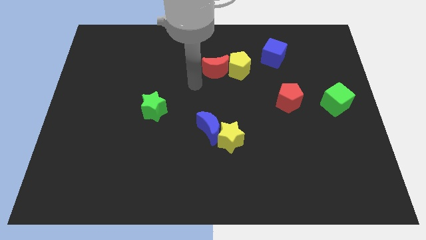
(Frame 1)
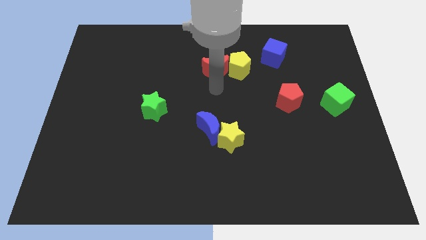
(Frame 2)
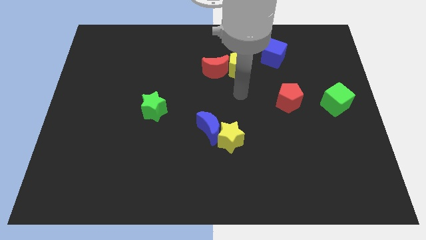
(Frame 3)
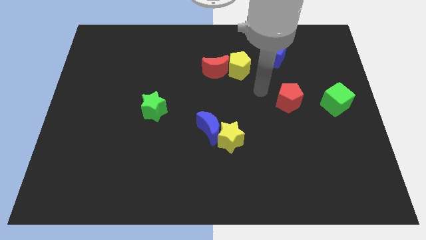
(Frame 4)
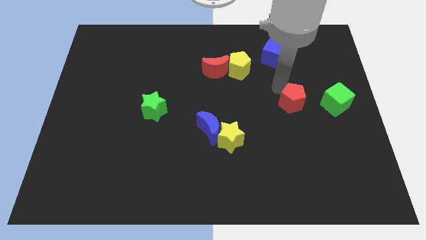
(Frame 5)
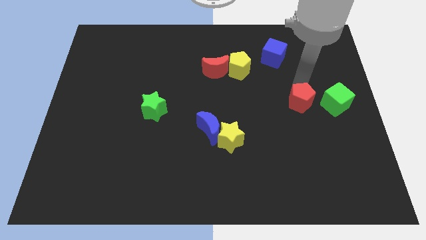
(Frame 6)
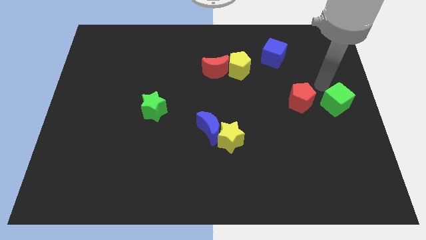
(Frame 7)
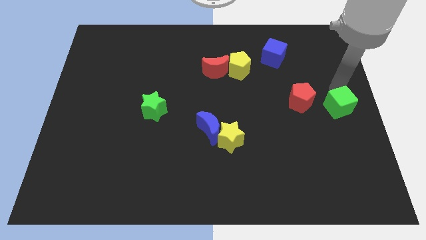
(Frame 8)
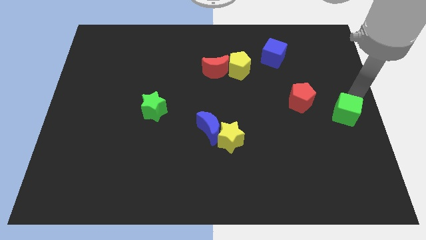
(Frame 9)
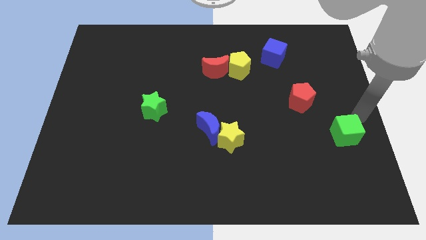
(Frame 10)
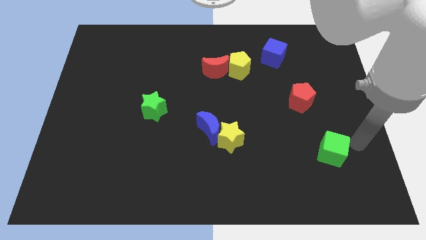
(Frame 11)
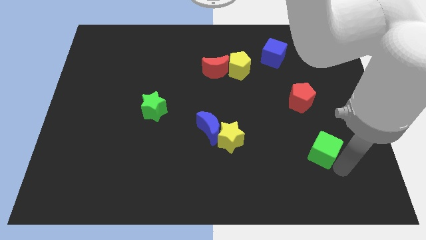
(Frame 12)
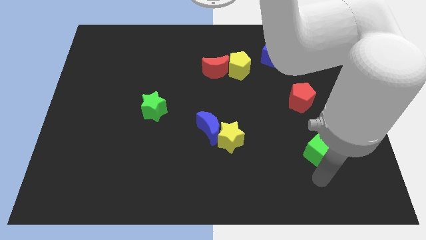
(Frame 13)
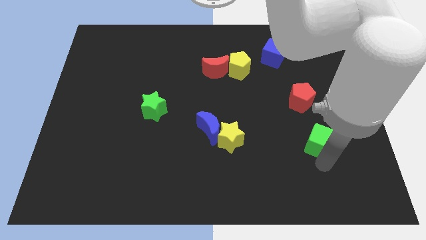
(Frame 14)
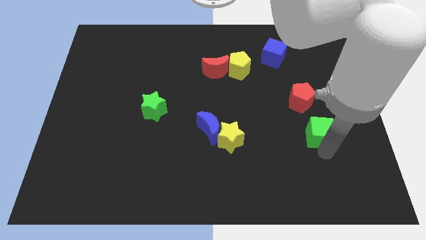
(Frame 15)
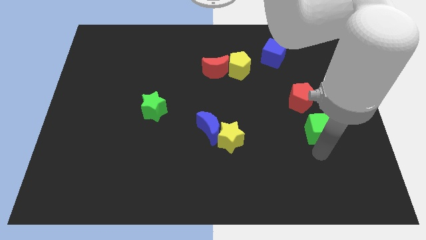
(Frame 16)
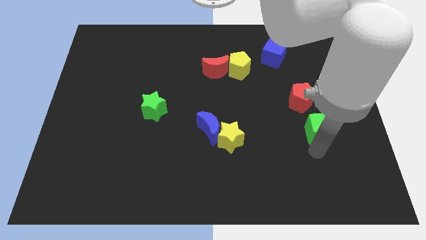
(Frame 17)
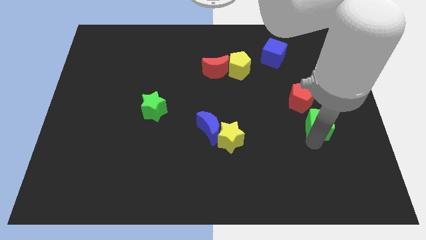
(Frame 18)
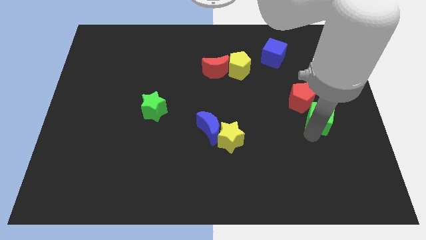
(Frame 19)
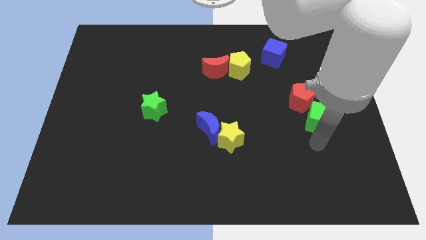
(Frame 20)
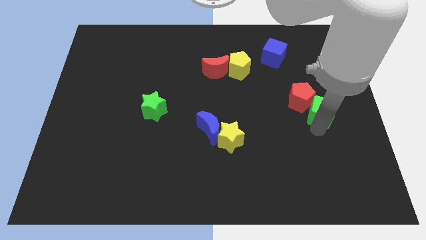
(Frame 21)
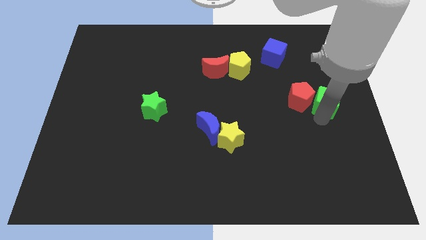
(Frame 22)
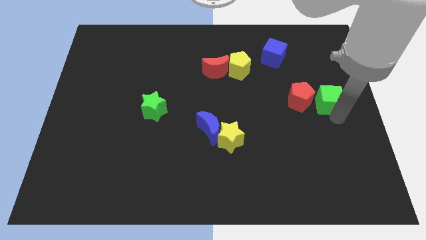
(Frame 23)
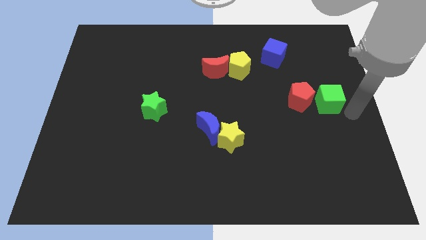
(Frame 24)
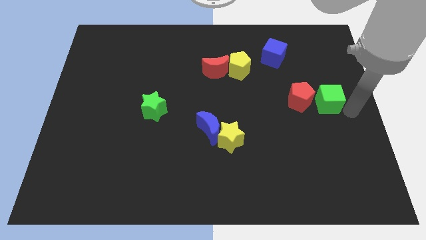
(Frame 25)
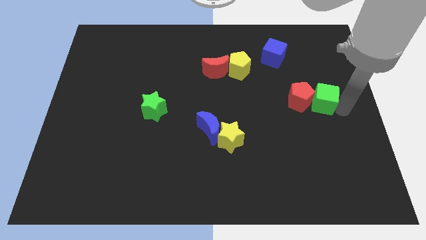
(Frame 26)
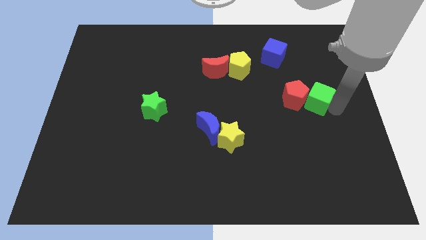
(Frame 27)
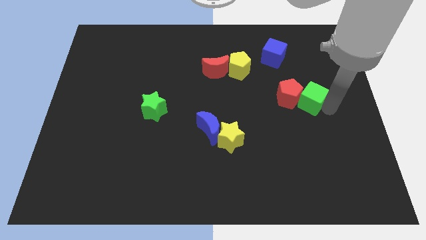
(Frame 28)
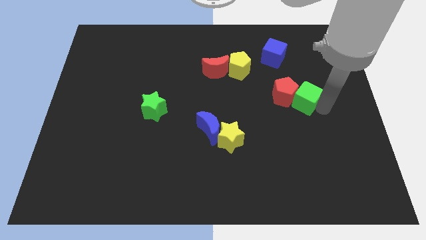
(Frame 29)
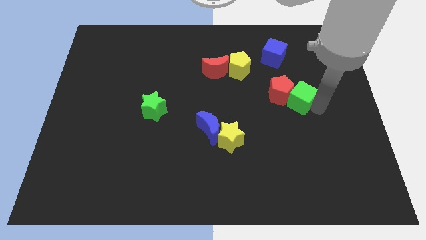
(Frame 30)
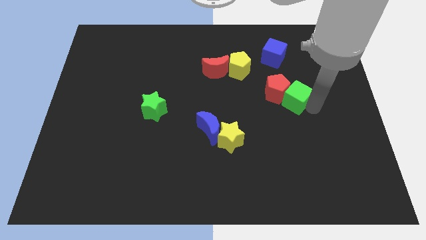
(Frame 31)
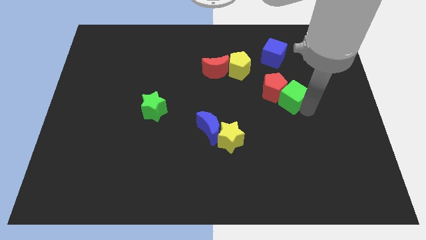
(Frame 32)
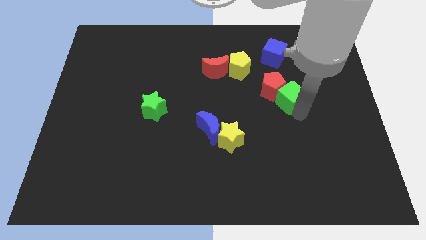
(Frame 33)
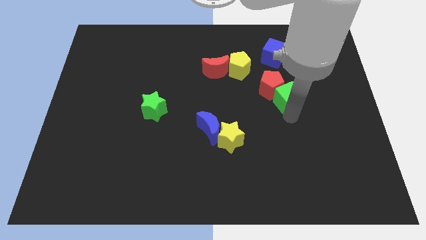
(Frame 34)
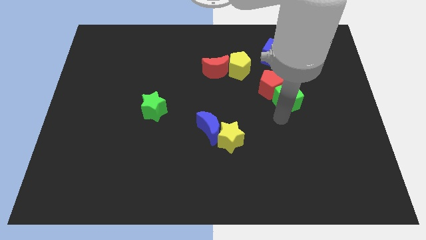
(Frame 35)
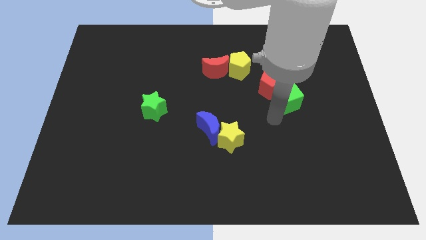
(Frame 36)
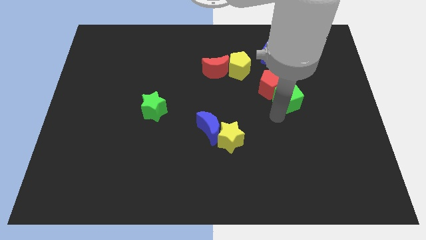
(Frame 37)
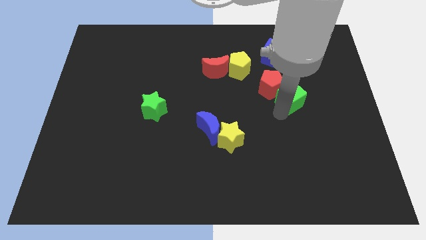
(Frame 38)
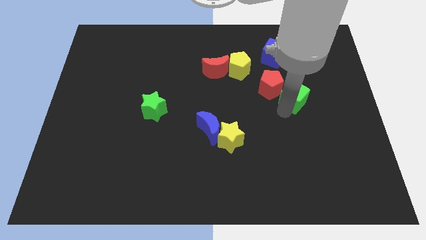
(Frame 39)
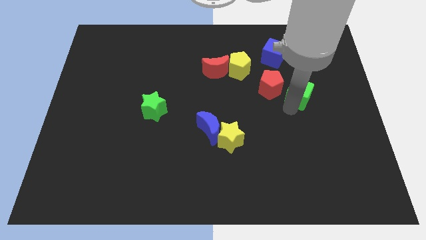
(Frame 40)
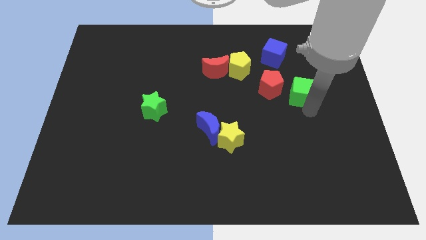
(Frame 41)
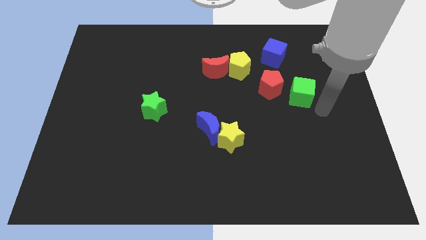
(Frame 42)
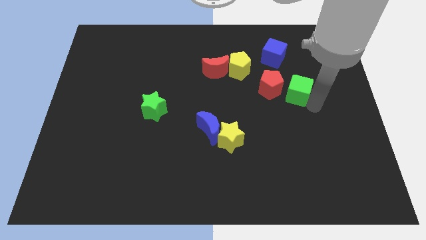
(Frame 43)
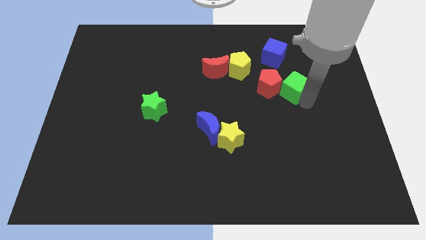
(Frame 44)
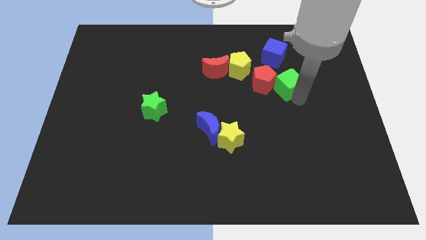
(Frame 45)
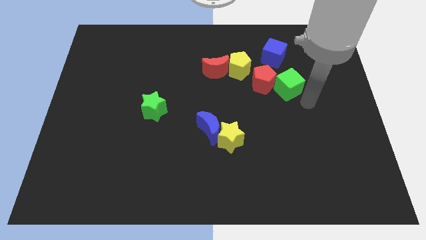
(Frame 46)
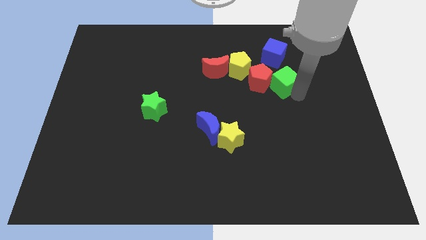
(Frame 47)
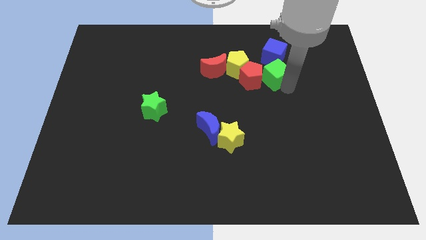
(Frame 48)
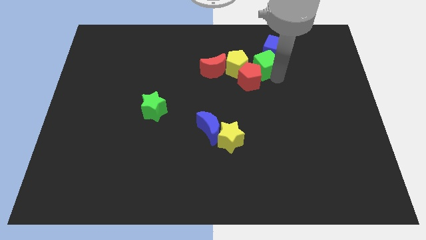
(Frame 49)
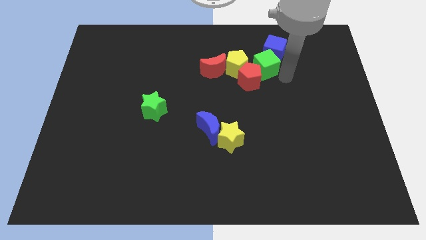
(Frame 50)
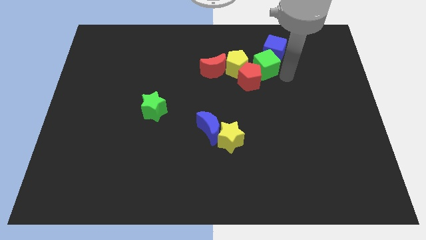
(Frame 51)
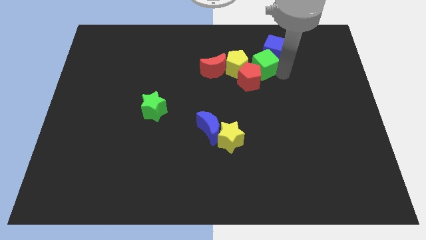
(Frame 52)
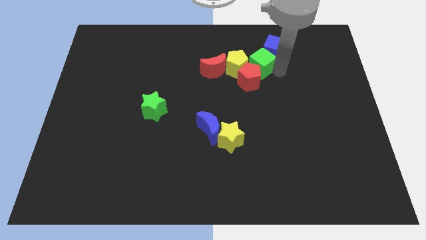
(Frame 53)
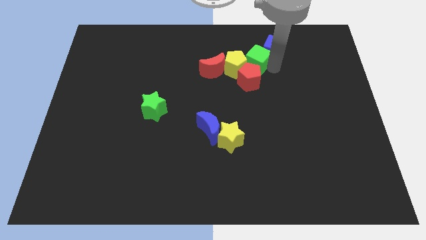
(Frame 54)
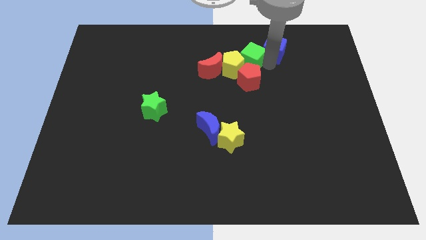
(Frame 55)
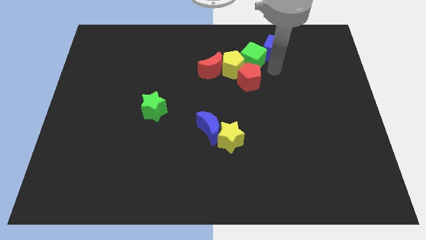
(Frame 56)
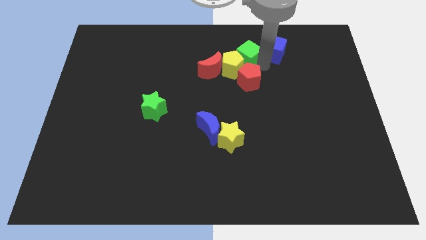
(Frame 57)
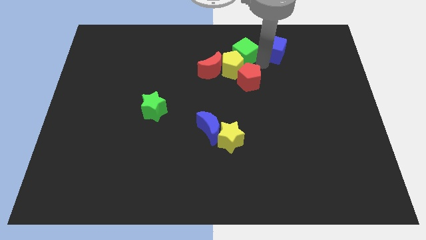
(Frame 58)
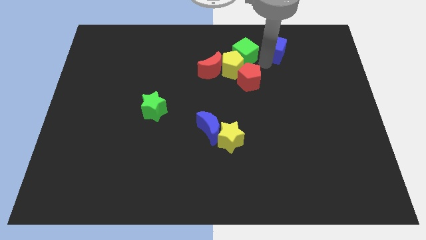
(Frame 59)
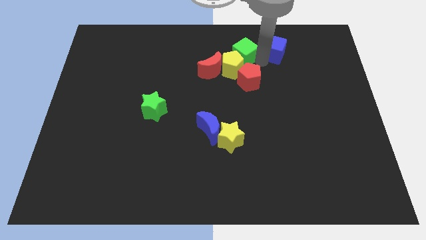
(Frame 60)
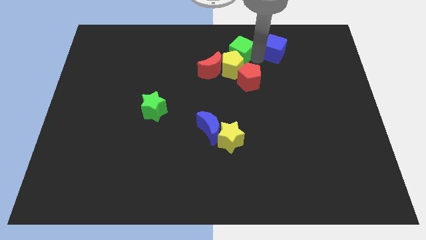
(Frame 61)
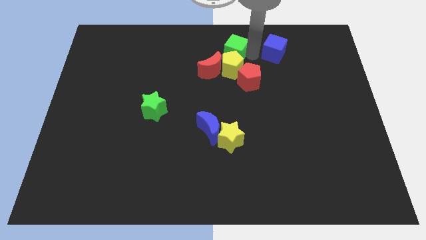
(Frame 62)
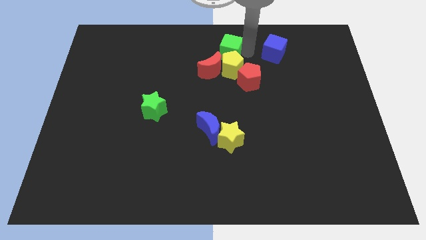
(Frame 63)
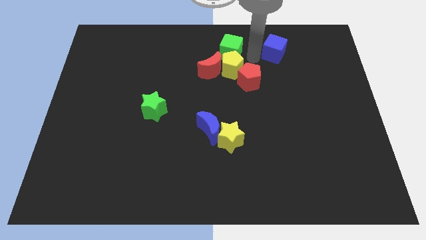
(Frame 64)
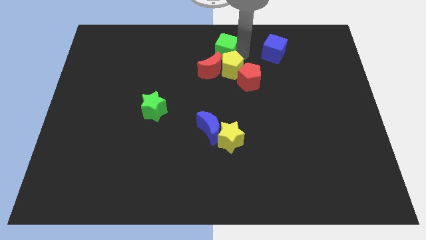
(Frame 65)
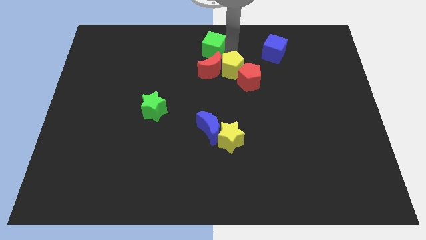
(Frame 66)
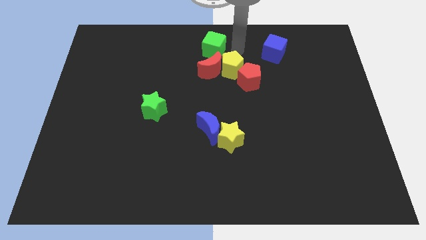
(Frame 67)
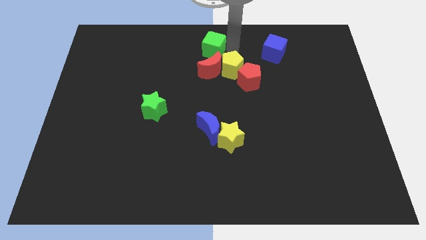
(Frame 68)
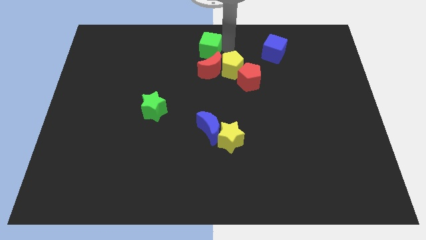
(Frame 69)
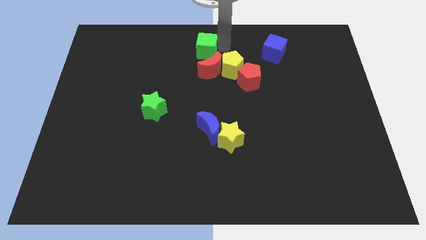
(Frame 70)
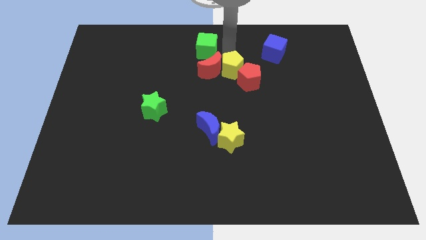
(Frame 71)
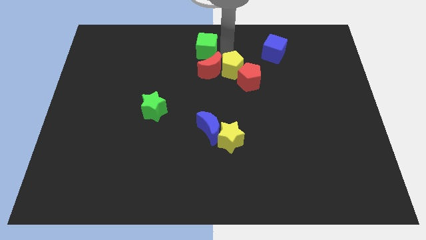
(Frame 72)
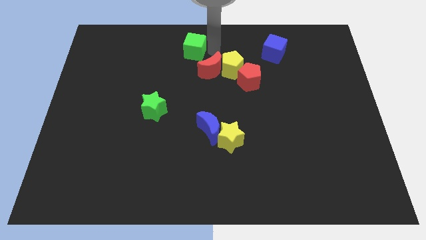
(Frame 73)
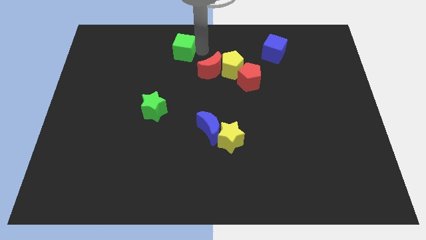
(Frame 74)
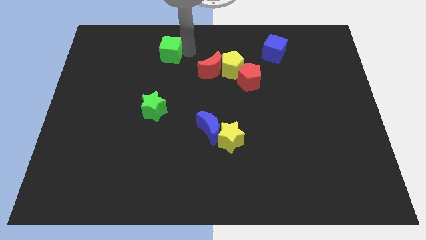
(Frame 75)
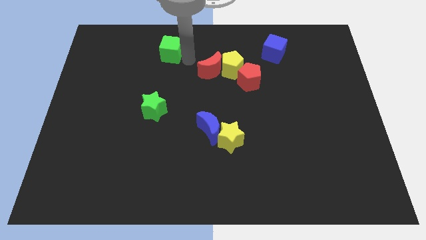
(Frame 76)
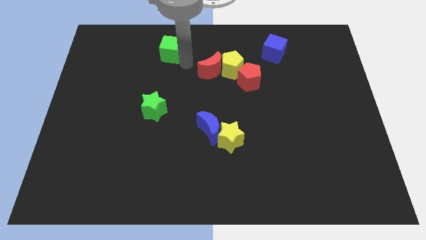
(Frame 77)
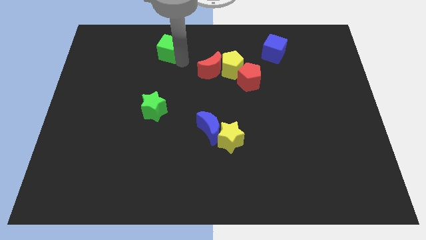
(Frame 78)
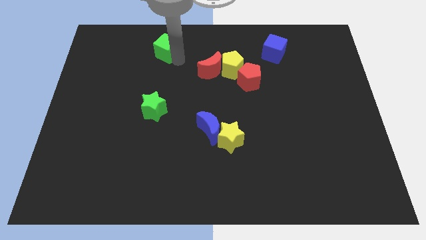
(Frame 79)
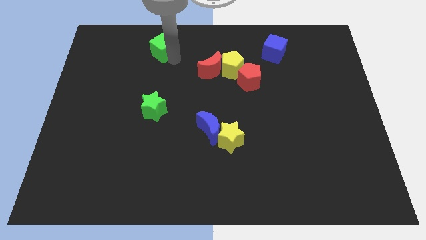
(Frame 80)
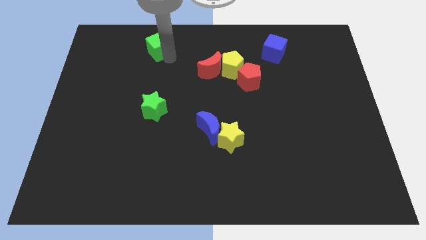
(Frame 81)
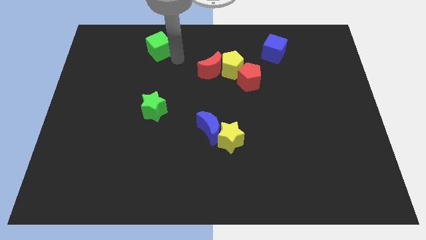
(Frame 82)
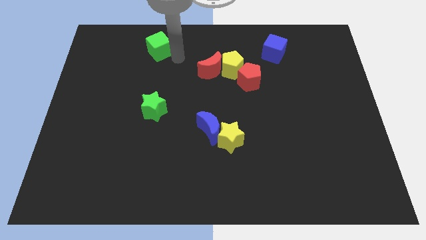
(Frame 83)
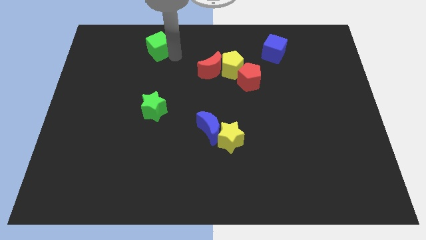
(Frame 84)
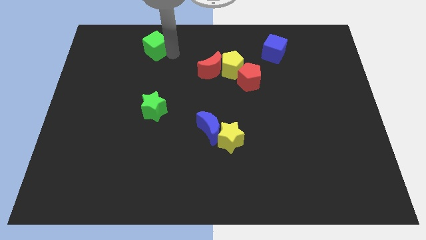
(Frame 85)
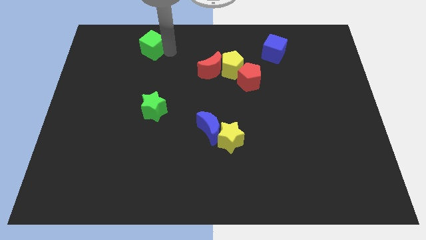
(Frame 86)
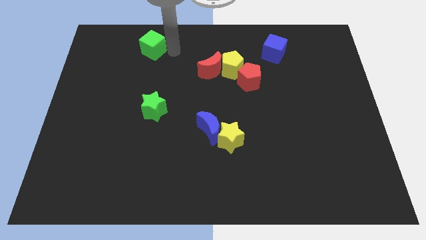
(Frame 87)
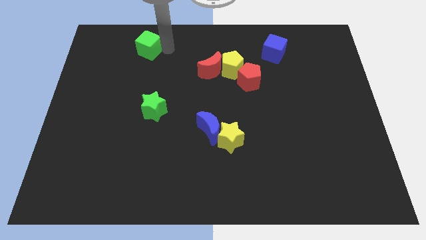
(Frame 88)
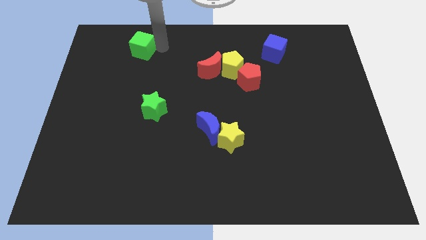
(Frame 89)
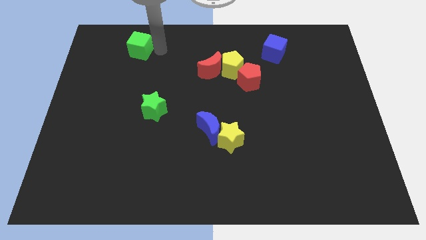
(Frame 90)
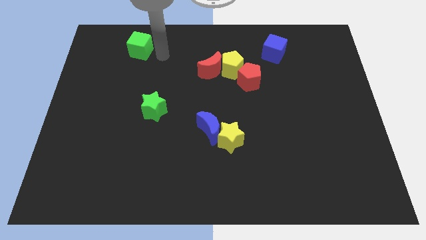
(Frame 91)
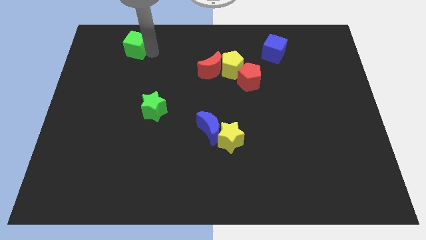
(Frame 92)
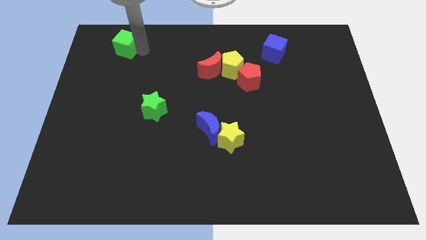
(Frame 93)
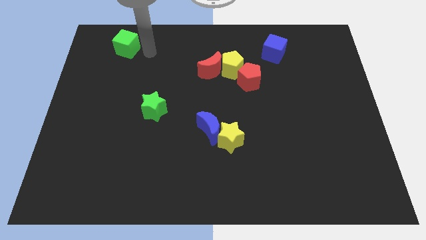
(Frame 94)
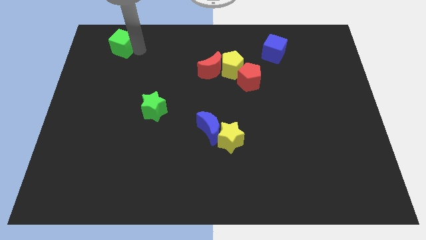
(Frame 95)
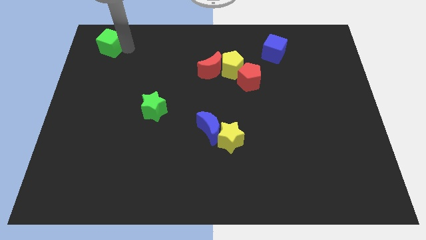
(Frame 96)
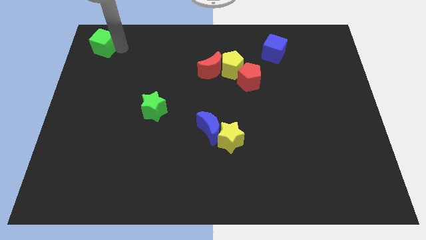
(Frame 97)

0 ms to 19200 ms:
slide the green cube to the top left
